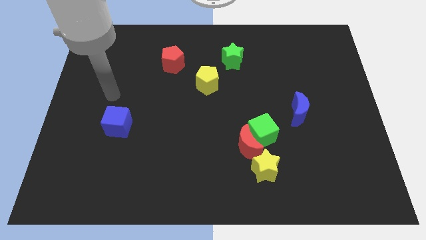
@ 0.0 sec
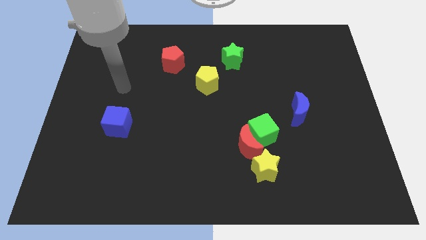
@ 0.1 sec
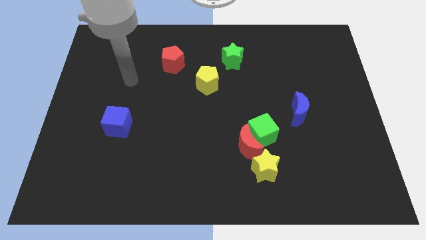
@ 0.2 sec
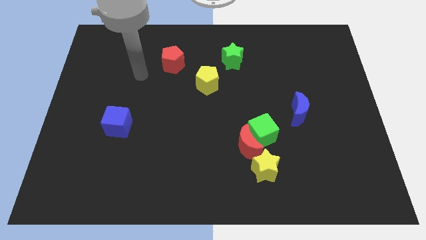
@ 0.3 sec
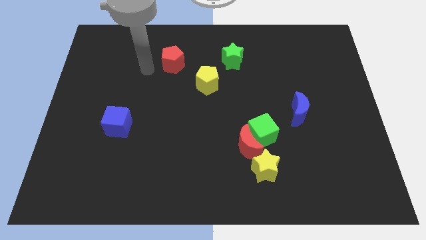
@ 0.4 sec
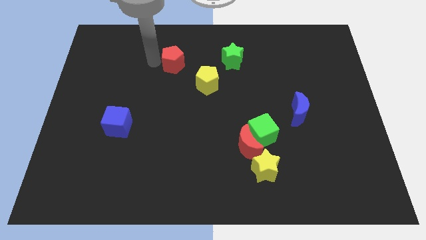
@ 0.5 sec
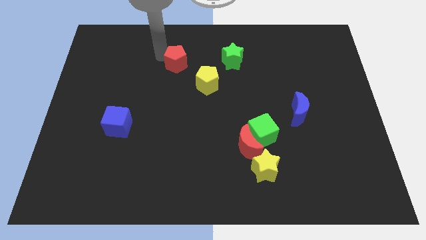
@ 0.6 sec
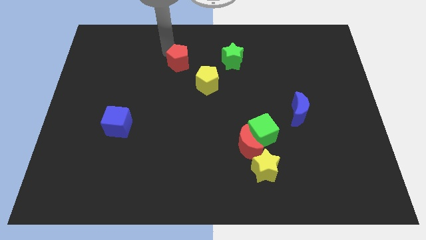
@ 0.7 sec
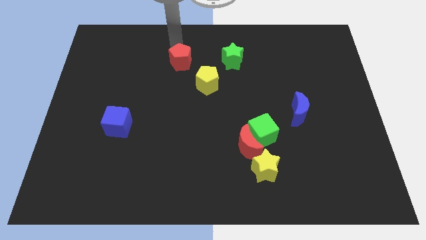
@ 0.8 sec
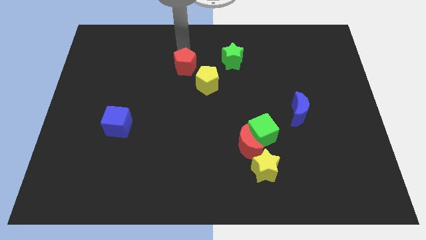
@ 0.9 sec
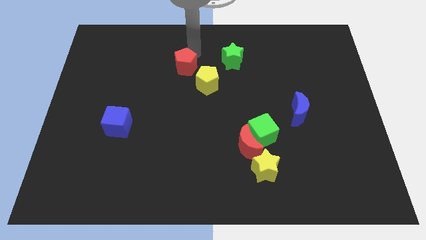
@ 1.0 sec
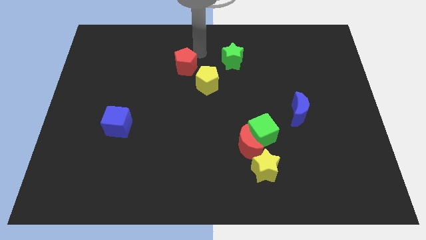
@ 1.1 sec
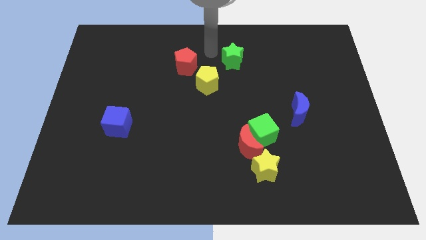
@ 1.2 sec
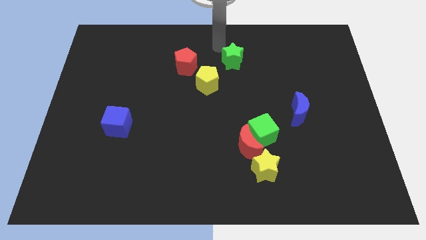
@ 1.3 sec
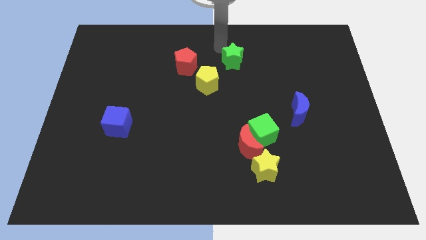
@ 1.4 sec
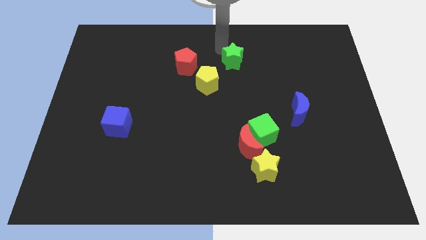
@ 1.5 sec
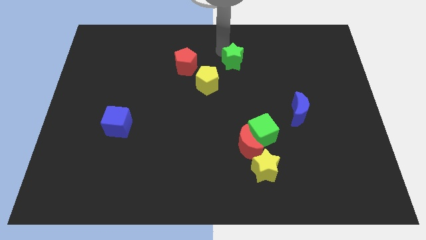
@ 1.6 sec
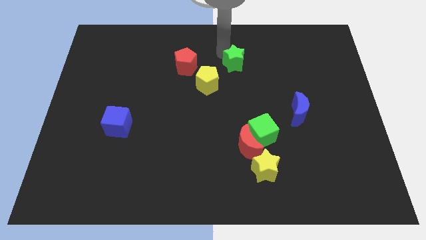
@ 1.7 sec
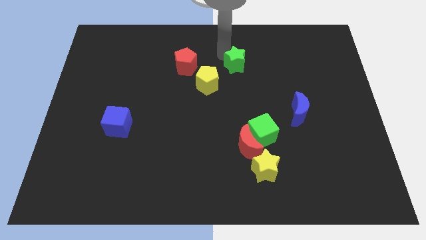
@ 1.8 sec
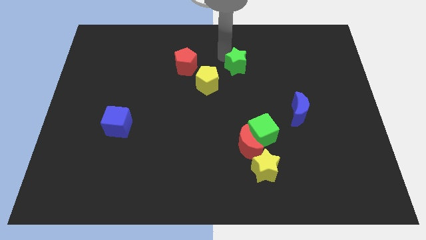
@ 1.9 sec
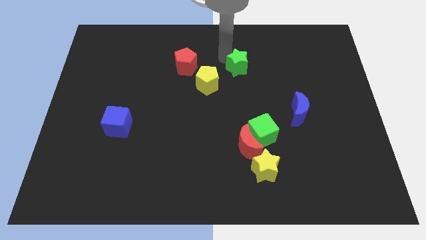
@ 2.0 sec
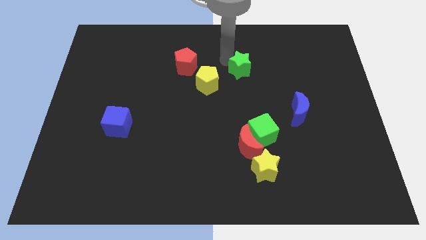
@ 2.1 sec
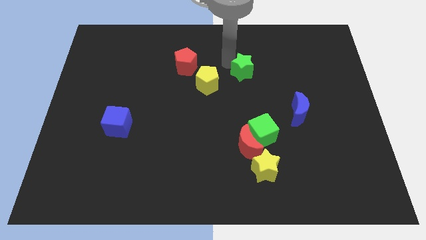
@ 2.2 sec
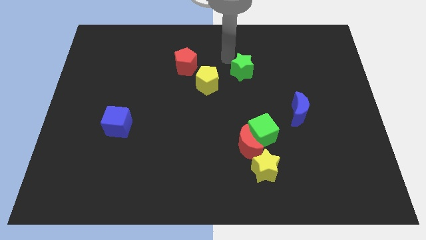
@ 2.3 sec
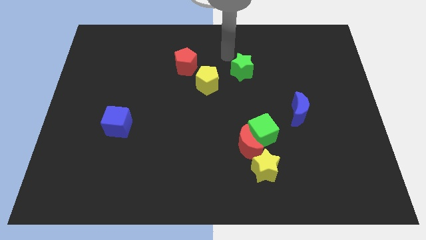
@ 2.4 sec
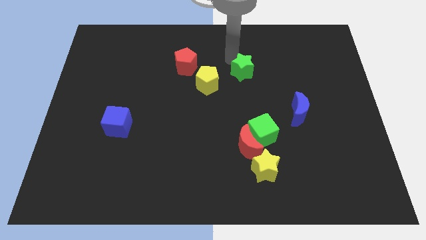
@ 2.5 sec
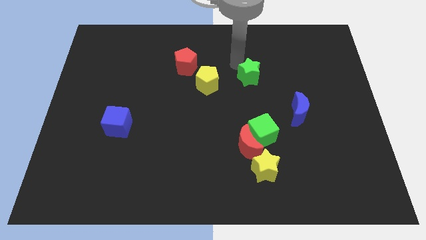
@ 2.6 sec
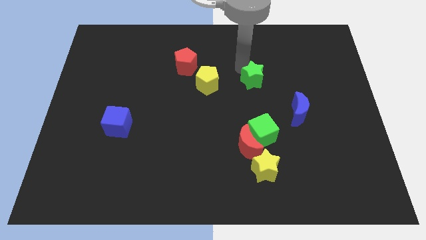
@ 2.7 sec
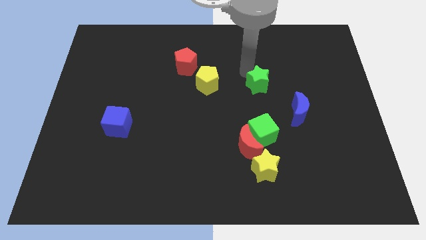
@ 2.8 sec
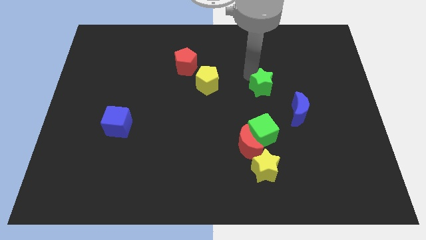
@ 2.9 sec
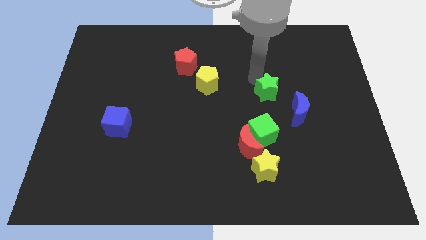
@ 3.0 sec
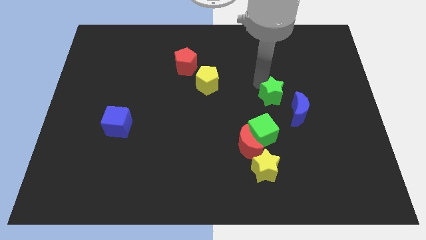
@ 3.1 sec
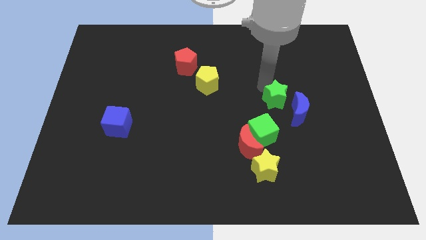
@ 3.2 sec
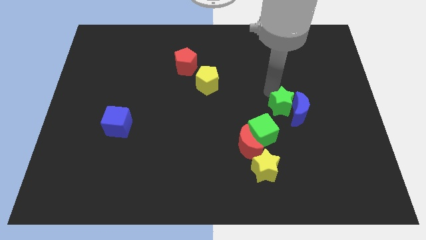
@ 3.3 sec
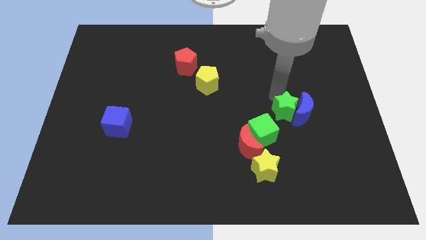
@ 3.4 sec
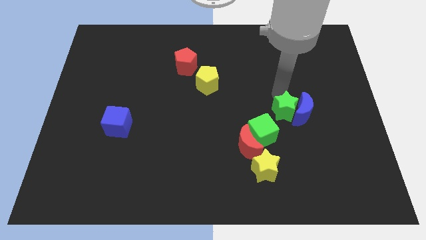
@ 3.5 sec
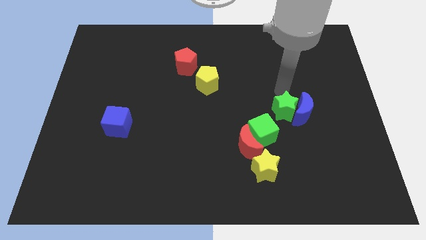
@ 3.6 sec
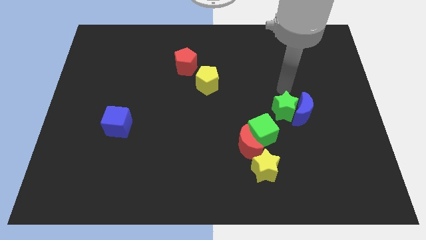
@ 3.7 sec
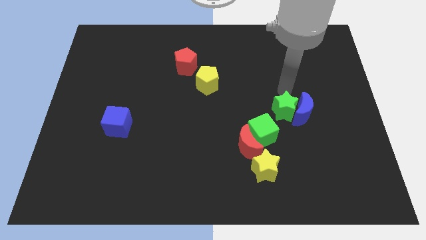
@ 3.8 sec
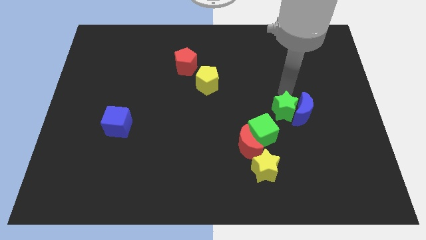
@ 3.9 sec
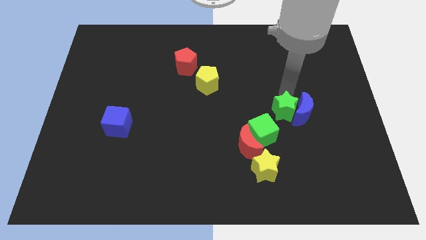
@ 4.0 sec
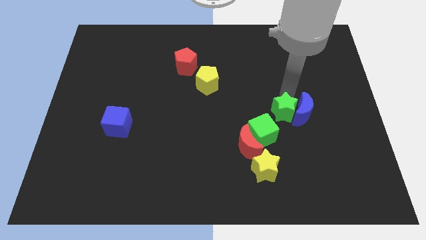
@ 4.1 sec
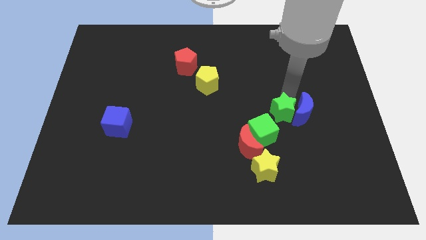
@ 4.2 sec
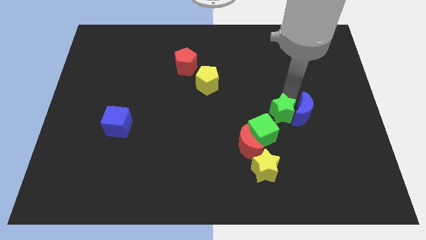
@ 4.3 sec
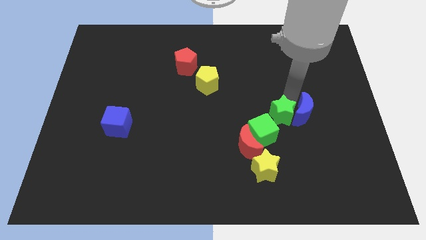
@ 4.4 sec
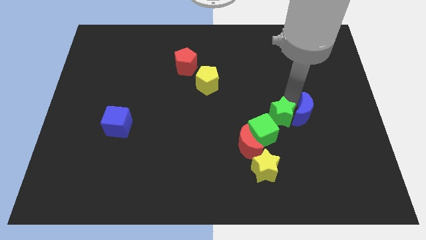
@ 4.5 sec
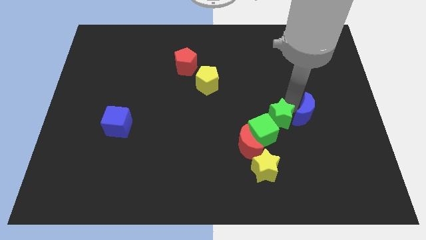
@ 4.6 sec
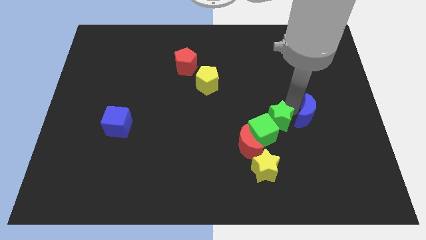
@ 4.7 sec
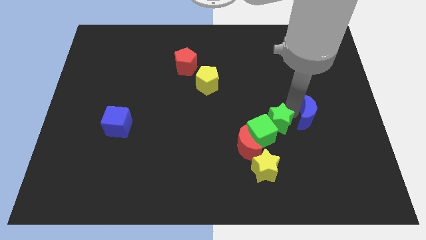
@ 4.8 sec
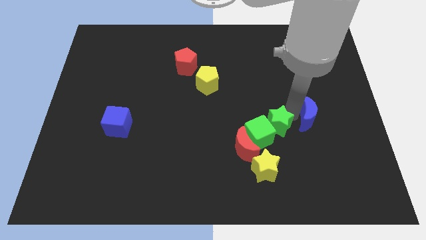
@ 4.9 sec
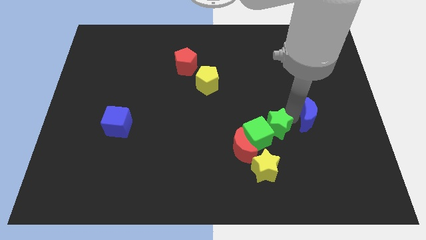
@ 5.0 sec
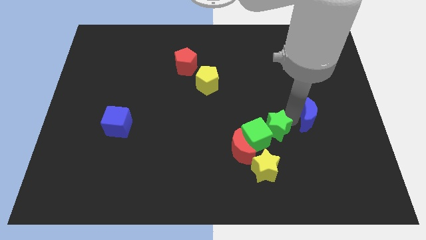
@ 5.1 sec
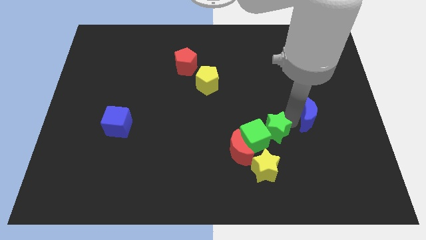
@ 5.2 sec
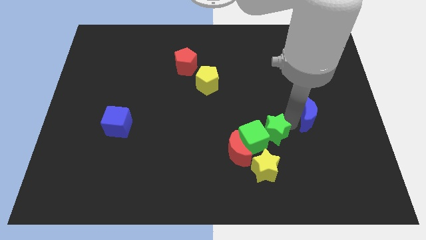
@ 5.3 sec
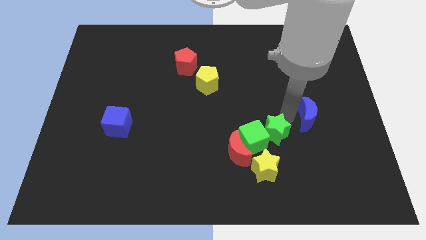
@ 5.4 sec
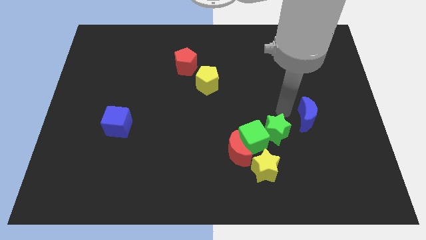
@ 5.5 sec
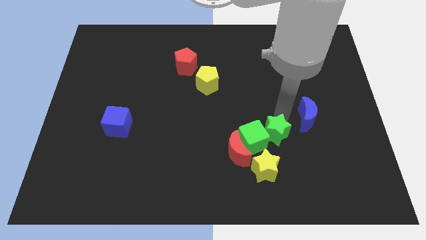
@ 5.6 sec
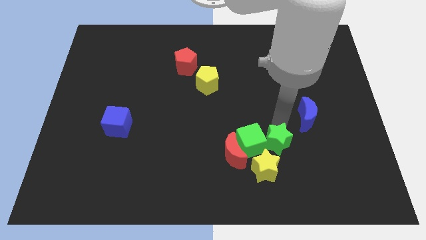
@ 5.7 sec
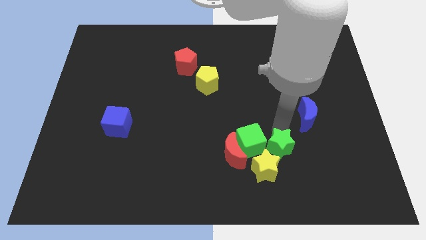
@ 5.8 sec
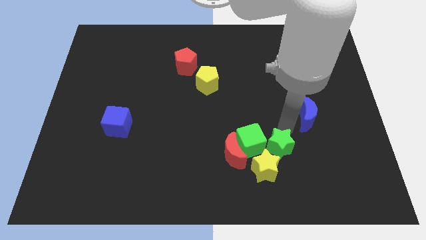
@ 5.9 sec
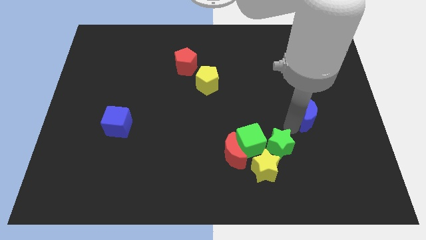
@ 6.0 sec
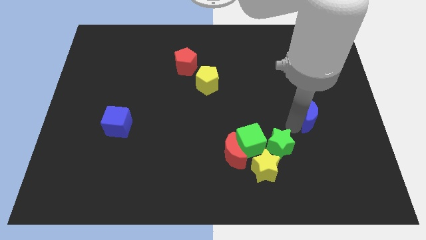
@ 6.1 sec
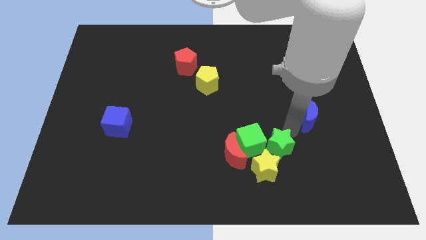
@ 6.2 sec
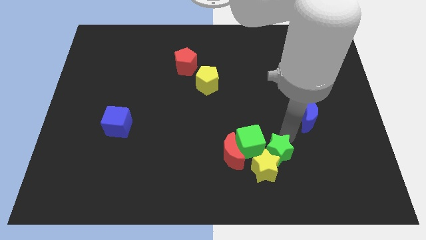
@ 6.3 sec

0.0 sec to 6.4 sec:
move the green star towards the yellow star
